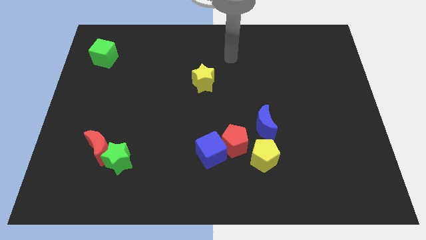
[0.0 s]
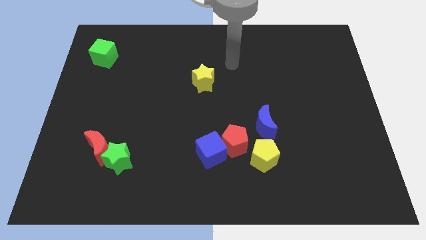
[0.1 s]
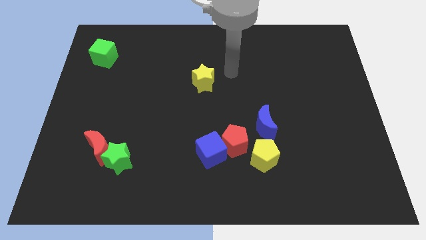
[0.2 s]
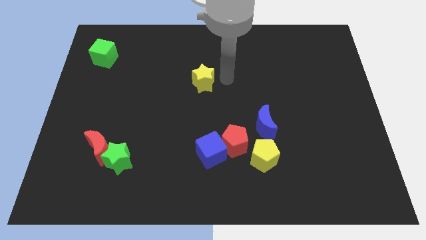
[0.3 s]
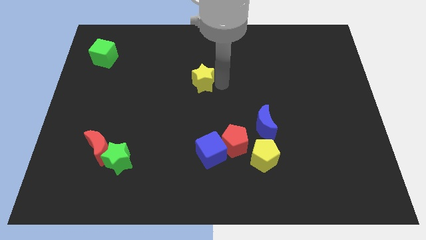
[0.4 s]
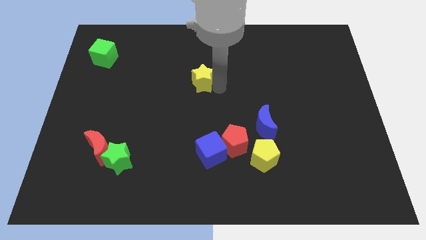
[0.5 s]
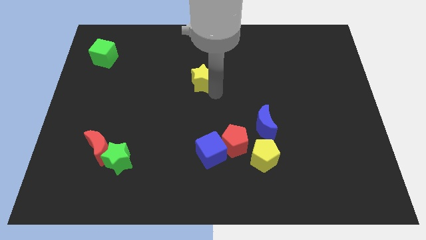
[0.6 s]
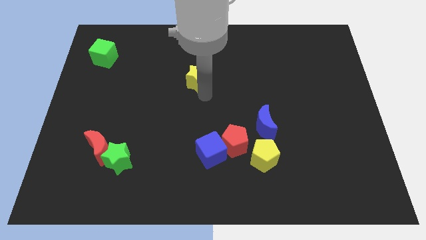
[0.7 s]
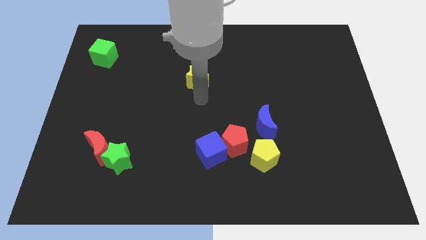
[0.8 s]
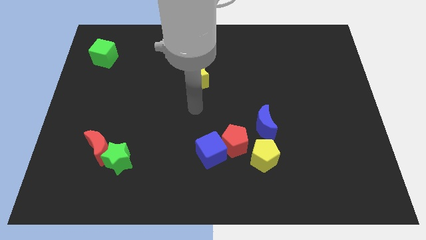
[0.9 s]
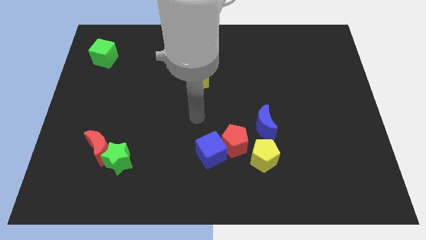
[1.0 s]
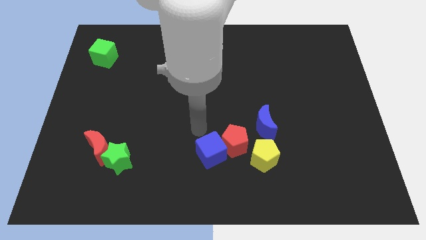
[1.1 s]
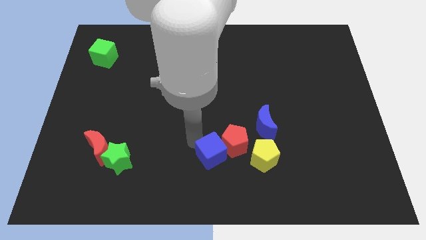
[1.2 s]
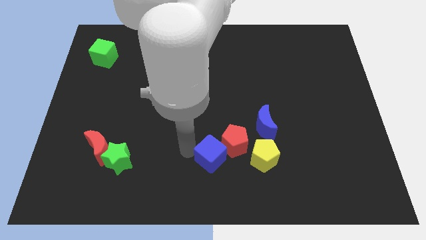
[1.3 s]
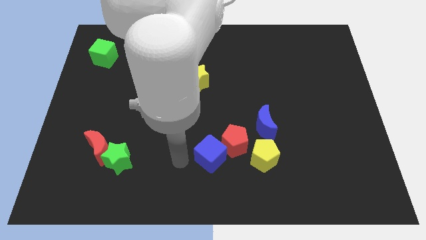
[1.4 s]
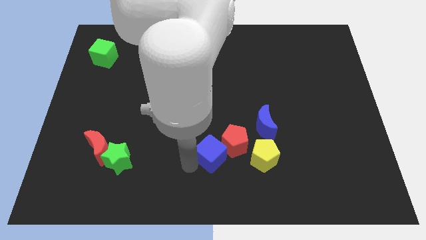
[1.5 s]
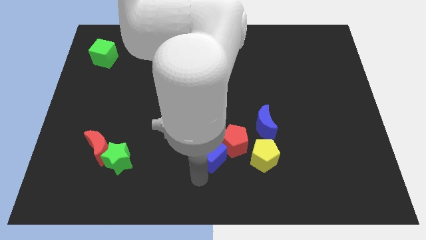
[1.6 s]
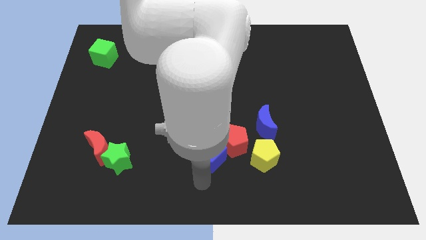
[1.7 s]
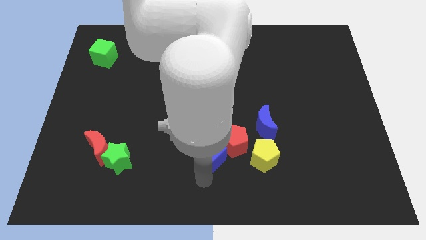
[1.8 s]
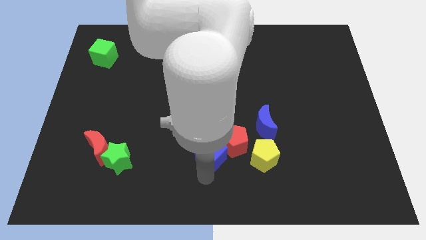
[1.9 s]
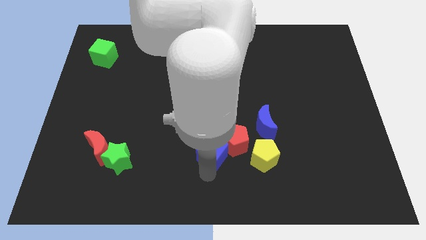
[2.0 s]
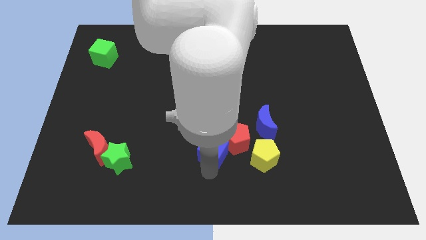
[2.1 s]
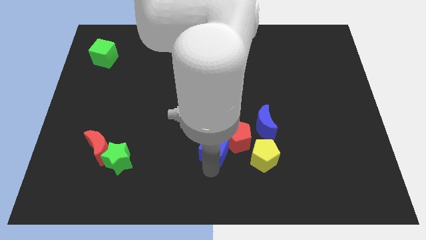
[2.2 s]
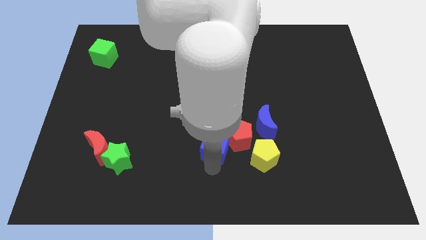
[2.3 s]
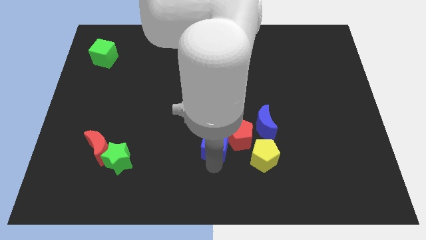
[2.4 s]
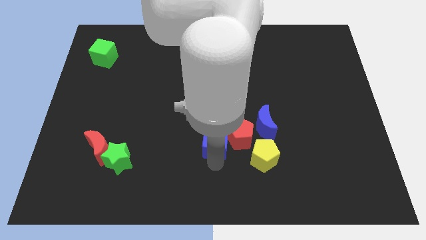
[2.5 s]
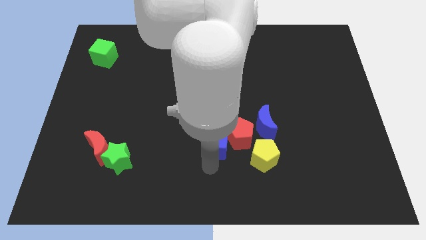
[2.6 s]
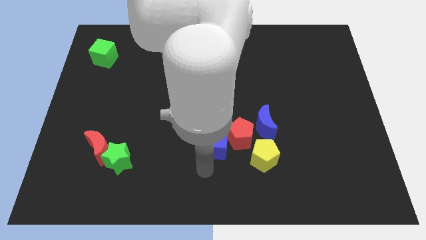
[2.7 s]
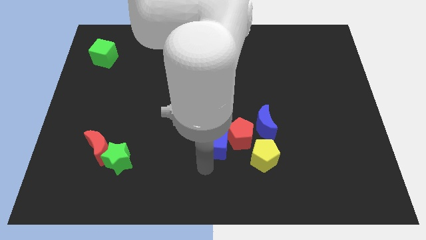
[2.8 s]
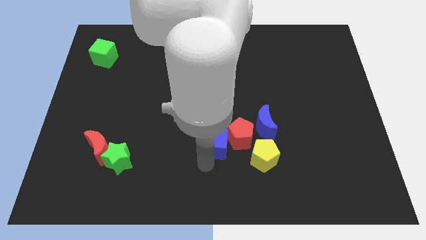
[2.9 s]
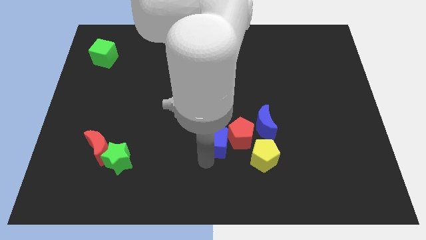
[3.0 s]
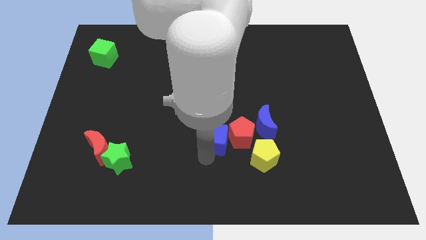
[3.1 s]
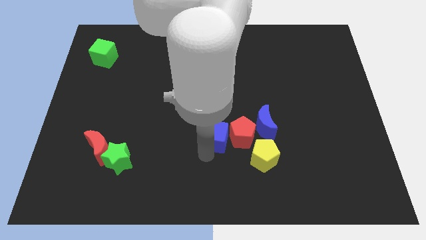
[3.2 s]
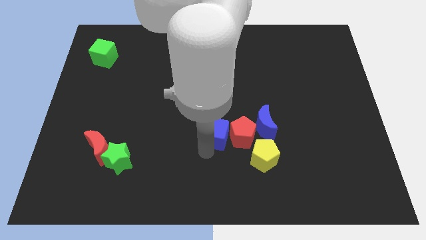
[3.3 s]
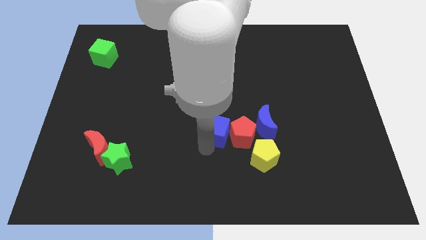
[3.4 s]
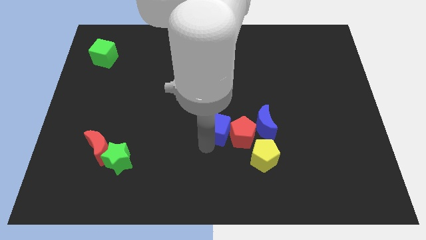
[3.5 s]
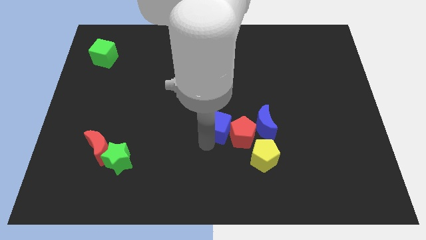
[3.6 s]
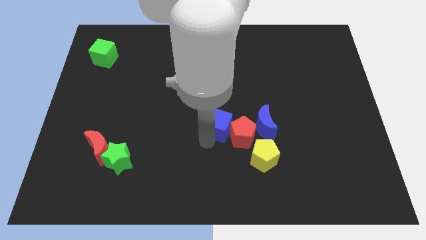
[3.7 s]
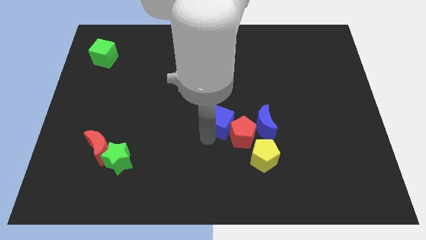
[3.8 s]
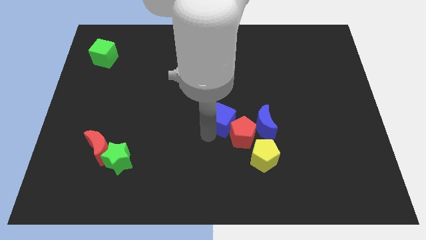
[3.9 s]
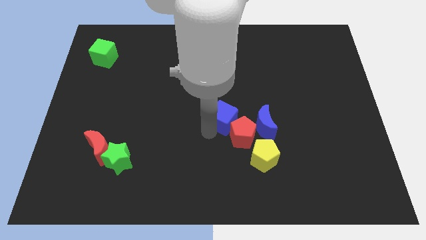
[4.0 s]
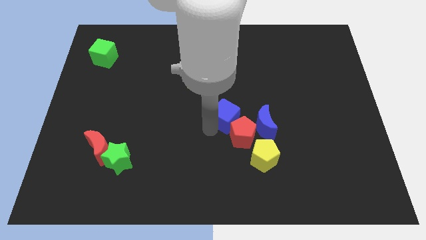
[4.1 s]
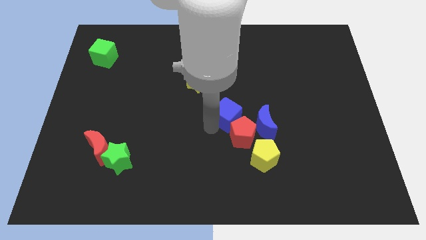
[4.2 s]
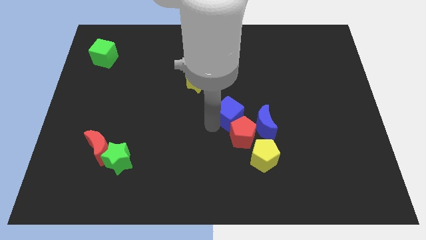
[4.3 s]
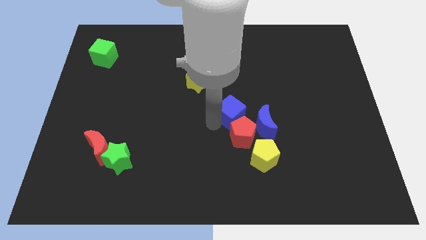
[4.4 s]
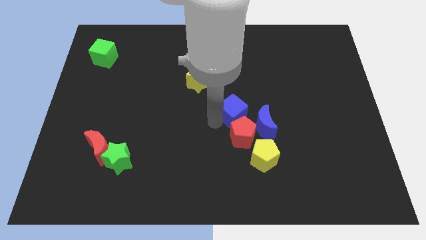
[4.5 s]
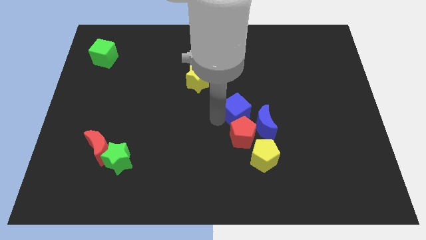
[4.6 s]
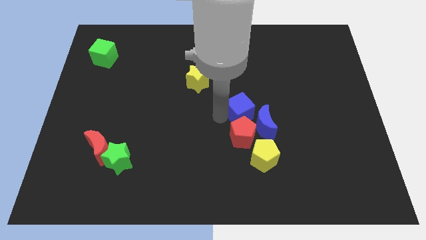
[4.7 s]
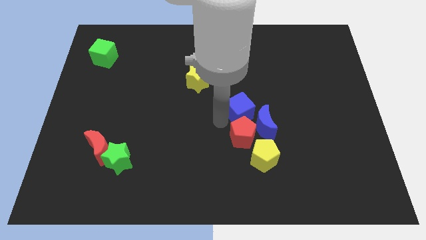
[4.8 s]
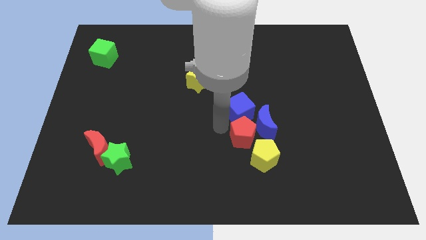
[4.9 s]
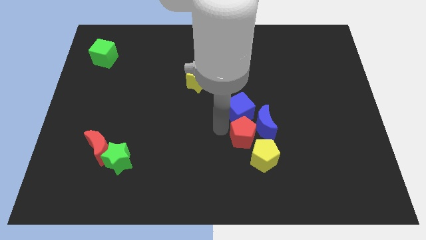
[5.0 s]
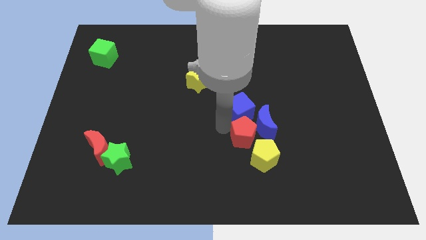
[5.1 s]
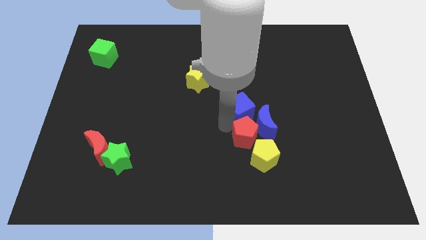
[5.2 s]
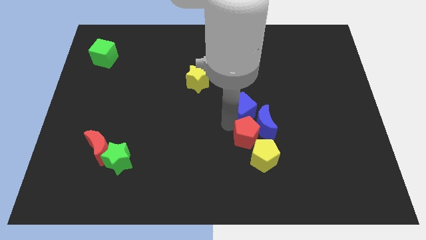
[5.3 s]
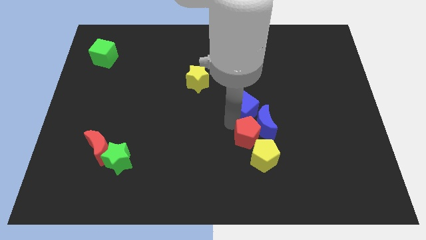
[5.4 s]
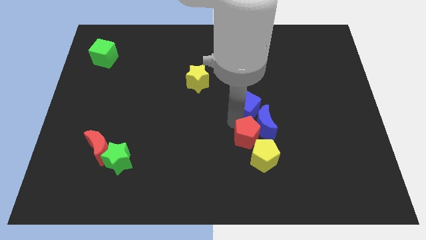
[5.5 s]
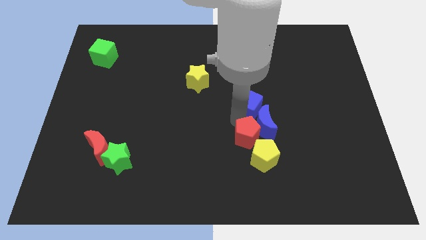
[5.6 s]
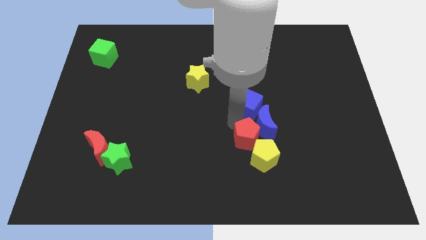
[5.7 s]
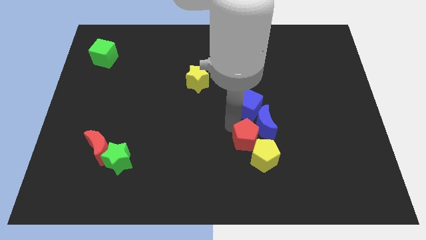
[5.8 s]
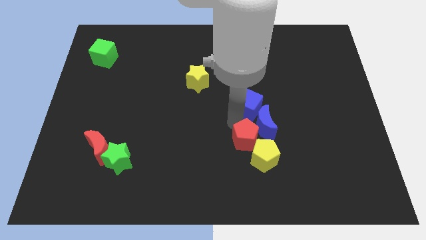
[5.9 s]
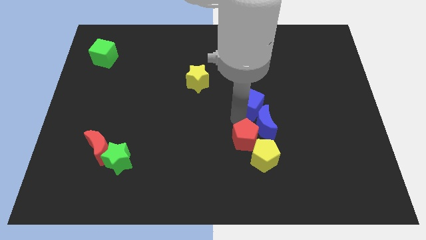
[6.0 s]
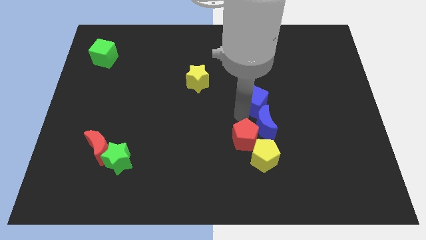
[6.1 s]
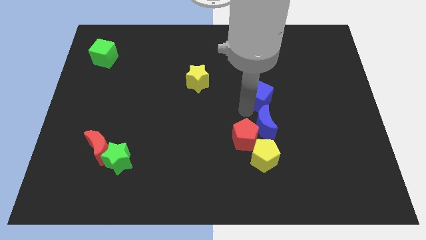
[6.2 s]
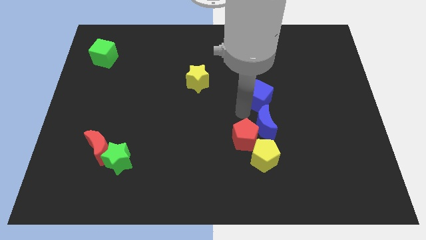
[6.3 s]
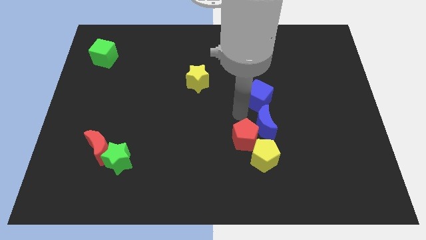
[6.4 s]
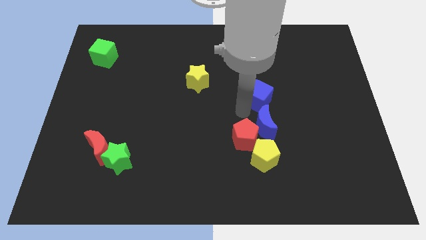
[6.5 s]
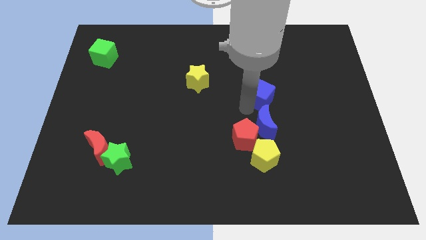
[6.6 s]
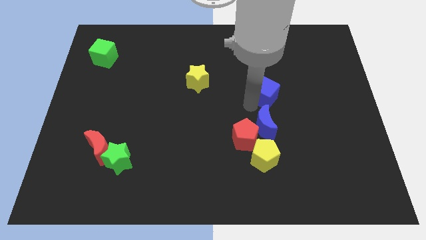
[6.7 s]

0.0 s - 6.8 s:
move the blue cube up and to the right diagonally

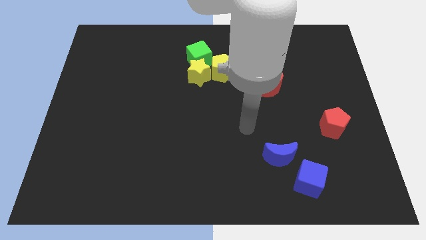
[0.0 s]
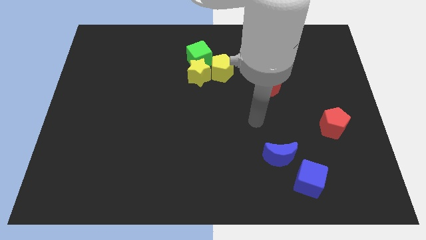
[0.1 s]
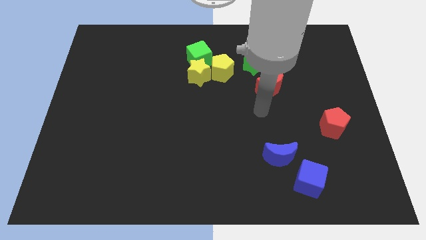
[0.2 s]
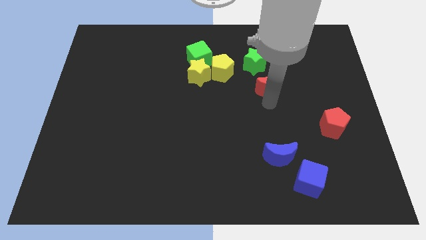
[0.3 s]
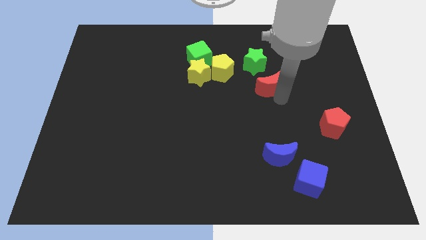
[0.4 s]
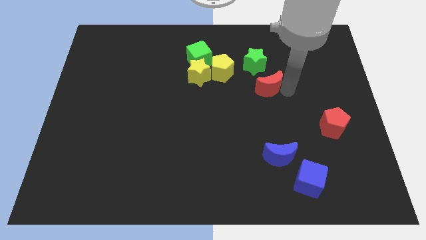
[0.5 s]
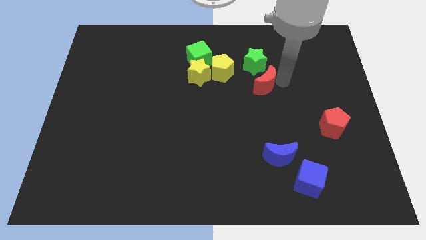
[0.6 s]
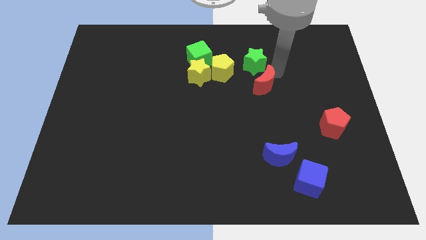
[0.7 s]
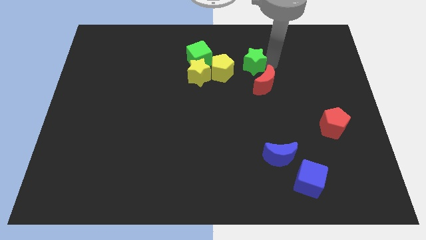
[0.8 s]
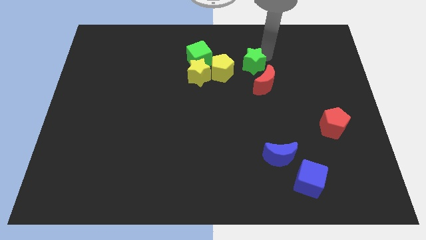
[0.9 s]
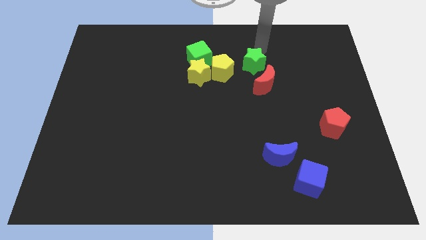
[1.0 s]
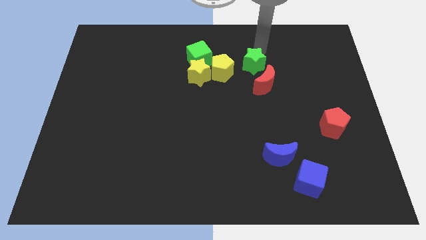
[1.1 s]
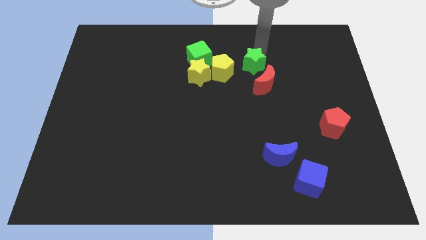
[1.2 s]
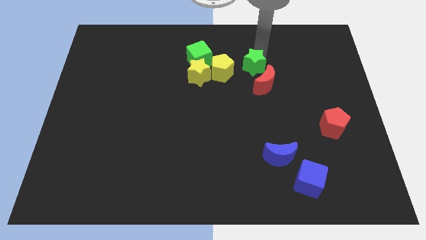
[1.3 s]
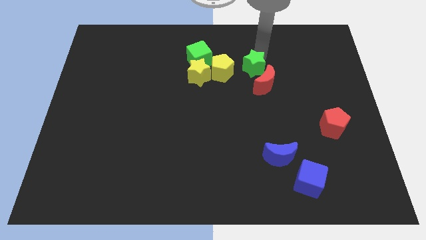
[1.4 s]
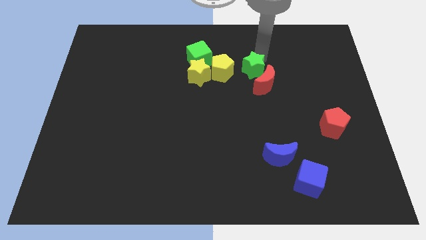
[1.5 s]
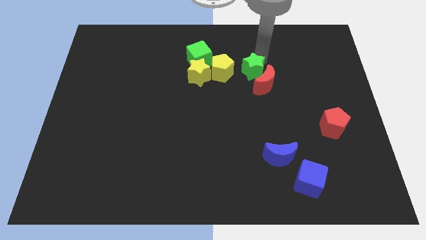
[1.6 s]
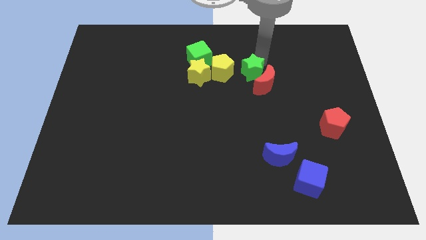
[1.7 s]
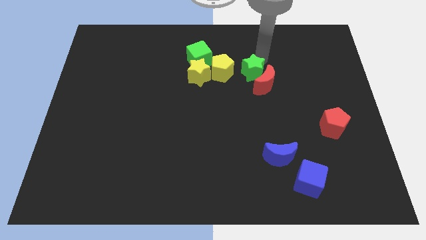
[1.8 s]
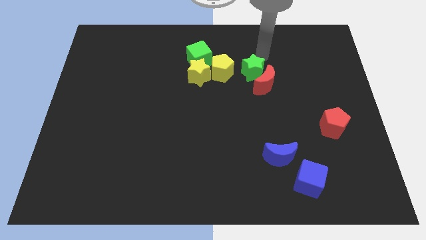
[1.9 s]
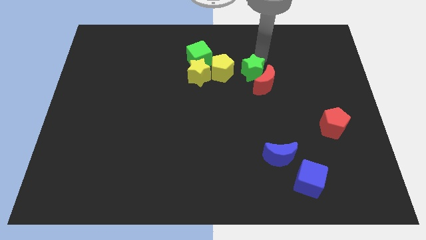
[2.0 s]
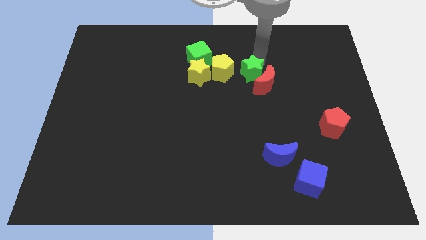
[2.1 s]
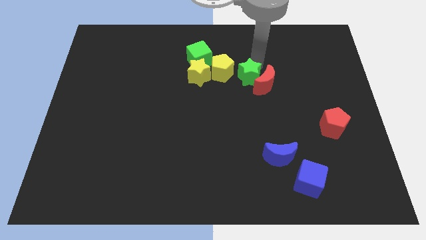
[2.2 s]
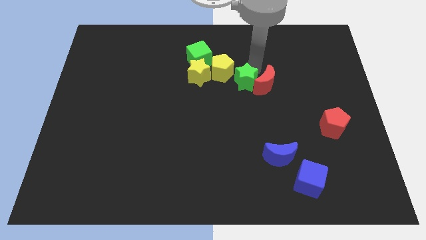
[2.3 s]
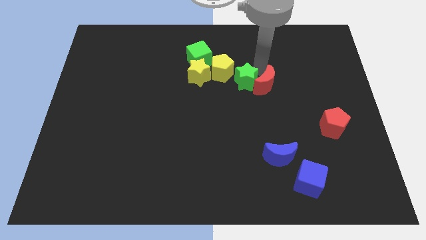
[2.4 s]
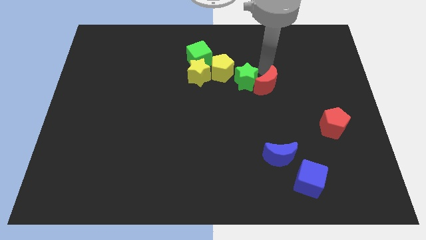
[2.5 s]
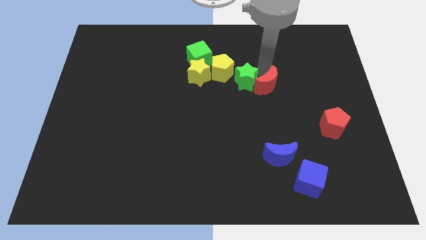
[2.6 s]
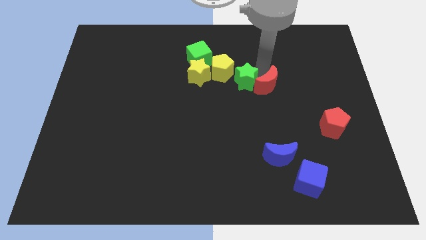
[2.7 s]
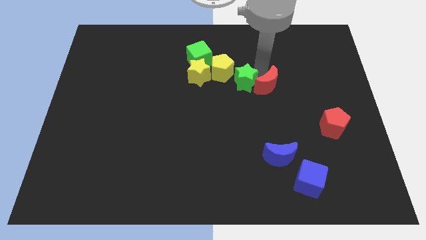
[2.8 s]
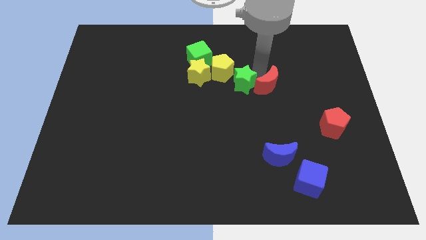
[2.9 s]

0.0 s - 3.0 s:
push the green star a little bit down and then left
